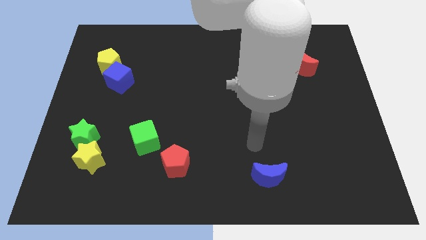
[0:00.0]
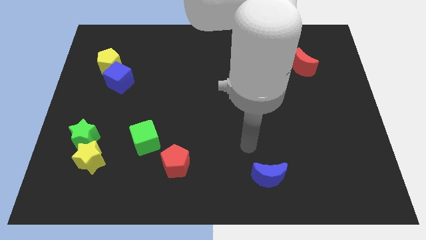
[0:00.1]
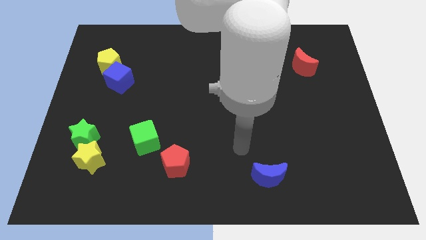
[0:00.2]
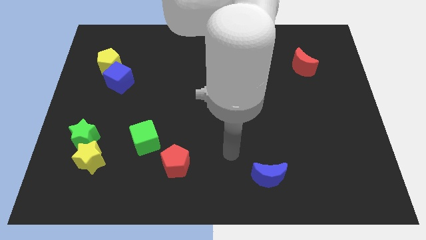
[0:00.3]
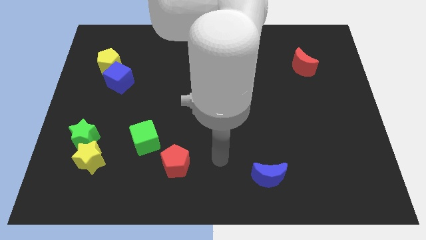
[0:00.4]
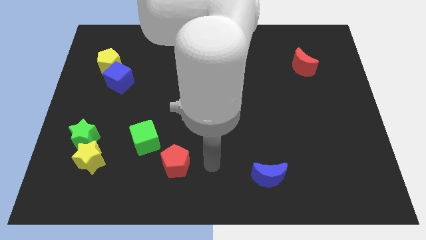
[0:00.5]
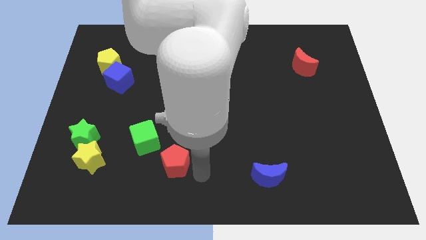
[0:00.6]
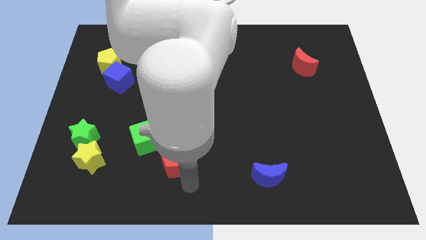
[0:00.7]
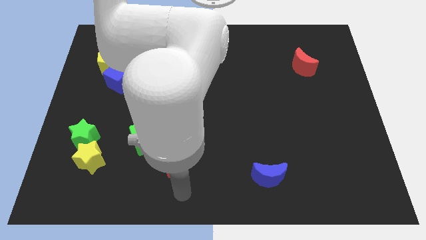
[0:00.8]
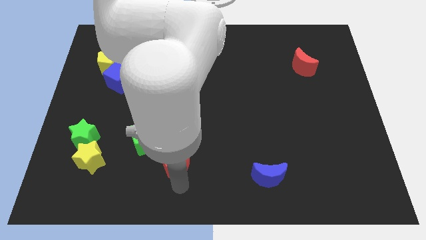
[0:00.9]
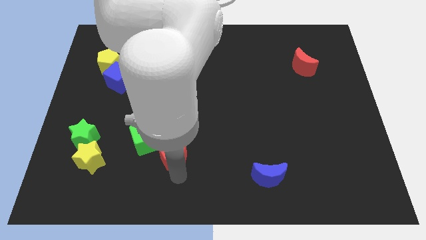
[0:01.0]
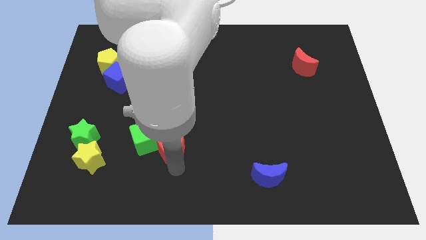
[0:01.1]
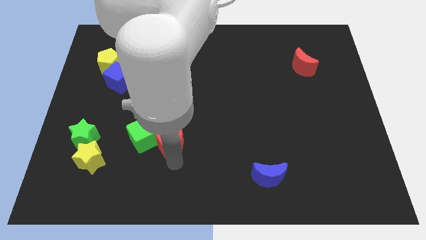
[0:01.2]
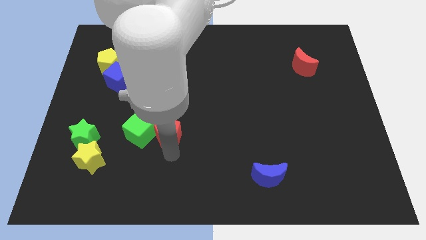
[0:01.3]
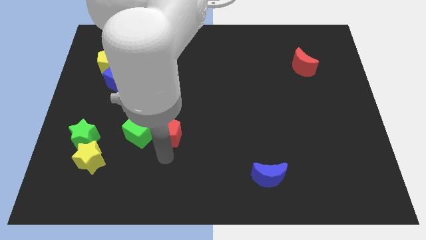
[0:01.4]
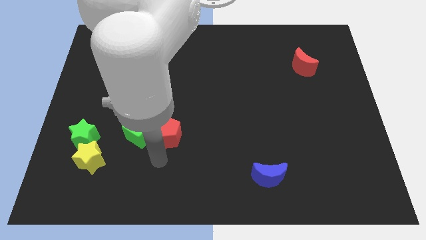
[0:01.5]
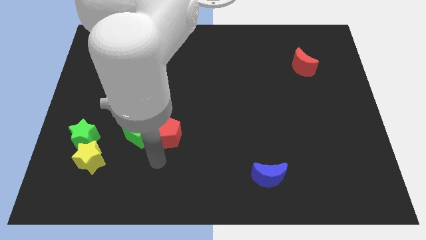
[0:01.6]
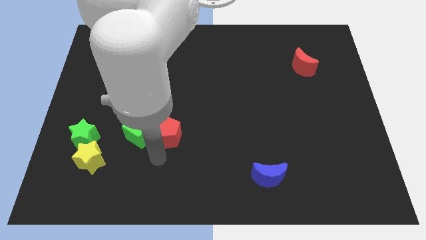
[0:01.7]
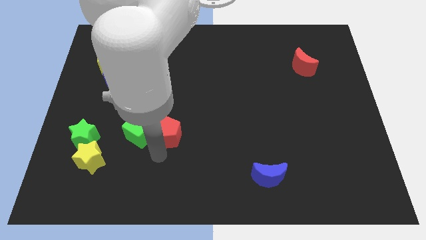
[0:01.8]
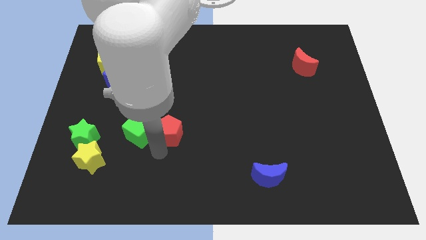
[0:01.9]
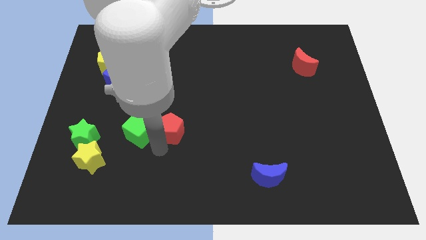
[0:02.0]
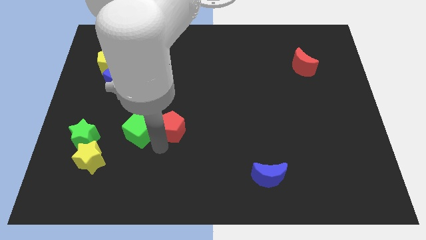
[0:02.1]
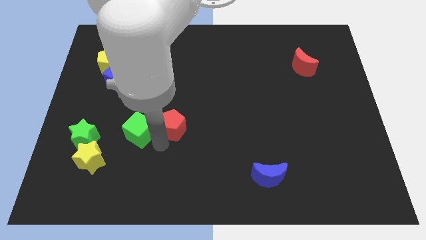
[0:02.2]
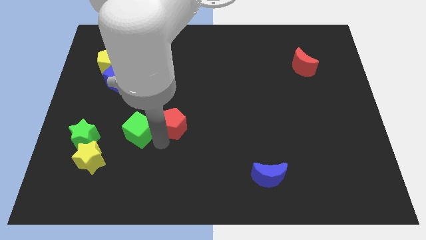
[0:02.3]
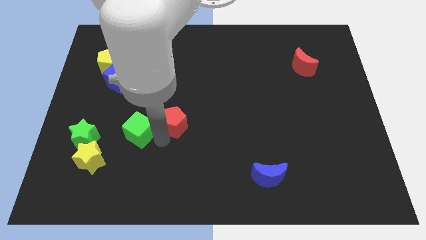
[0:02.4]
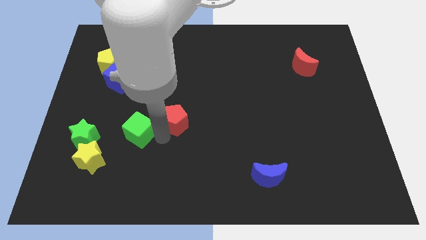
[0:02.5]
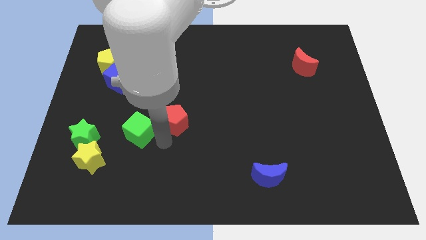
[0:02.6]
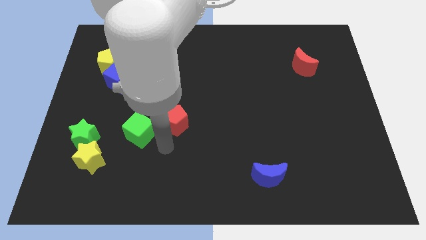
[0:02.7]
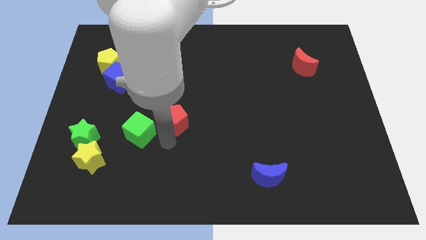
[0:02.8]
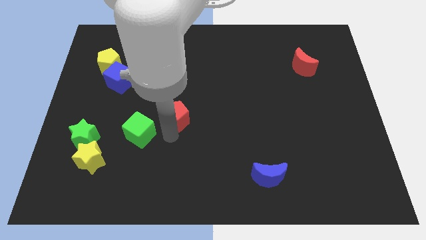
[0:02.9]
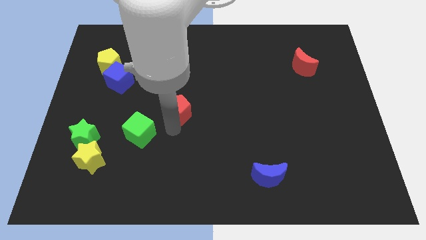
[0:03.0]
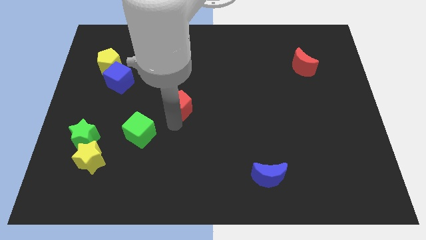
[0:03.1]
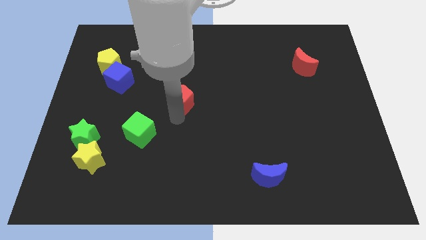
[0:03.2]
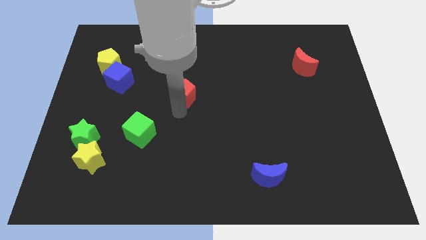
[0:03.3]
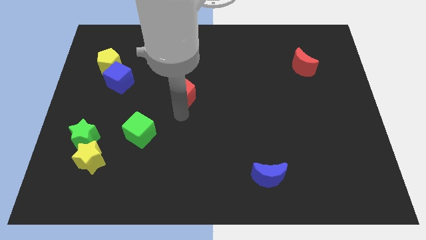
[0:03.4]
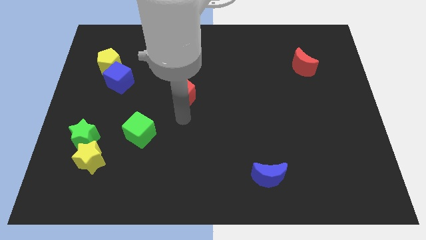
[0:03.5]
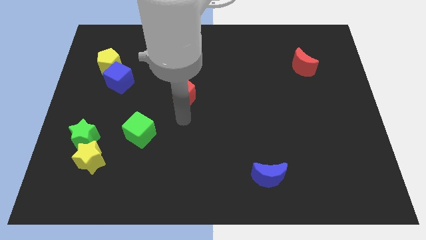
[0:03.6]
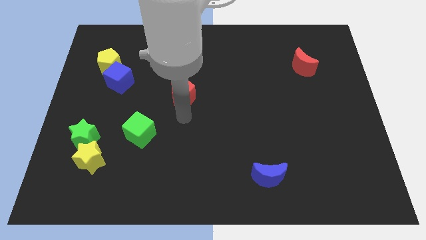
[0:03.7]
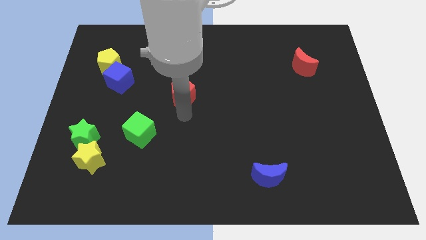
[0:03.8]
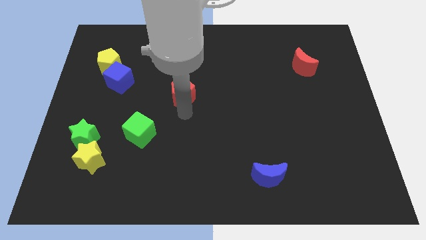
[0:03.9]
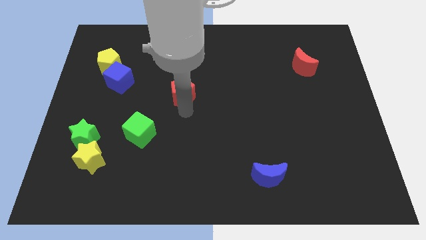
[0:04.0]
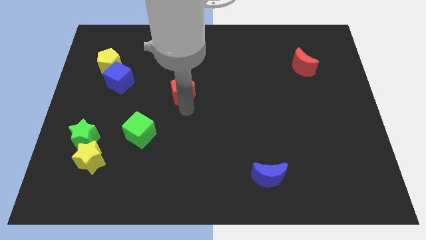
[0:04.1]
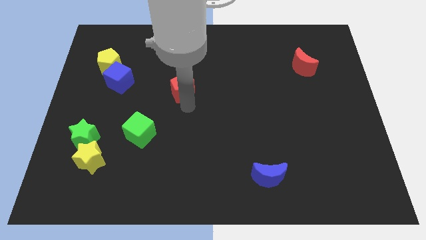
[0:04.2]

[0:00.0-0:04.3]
push the red pentagon up

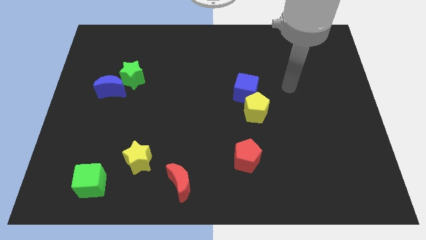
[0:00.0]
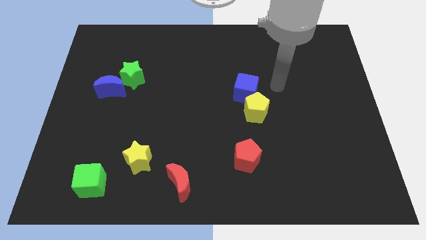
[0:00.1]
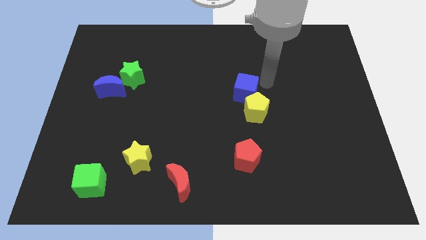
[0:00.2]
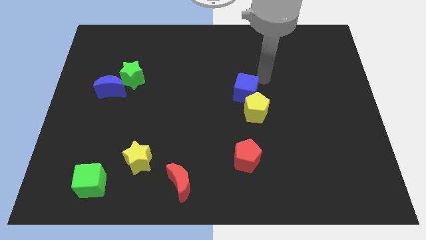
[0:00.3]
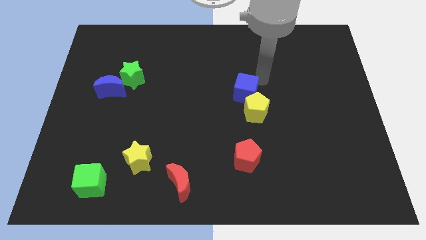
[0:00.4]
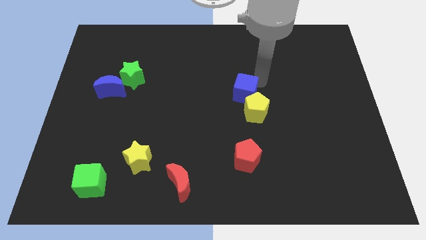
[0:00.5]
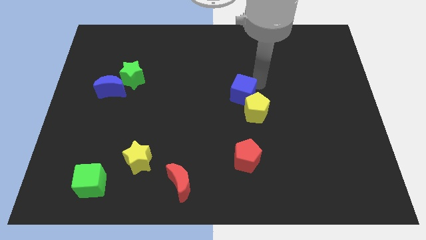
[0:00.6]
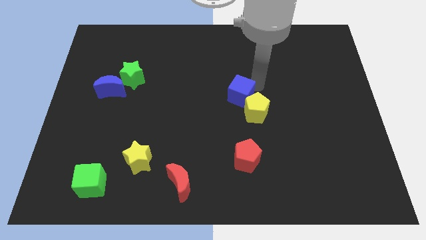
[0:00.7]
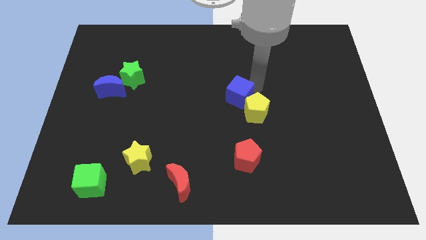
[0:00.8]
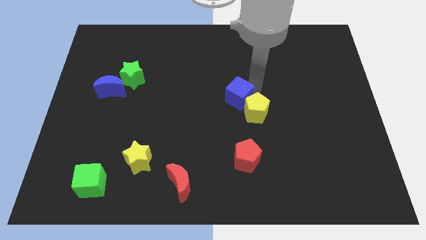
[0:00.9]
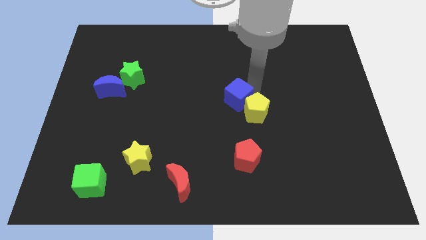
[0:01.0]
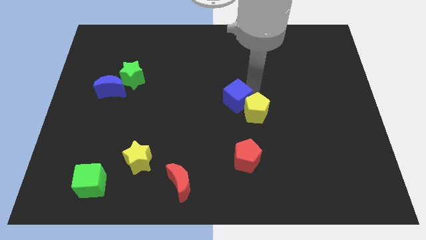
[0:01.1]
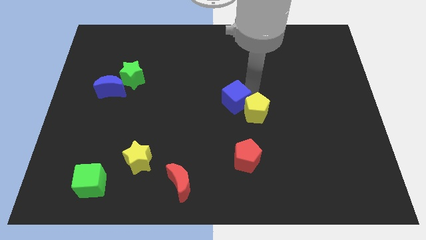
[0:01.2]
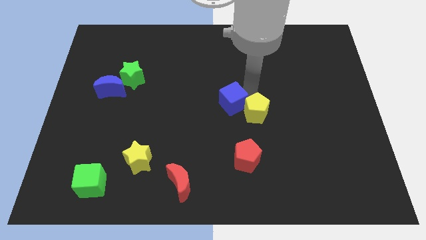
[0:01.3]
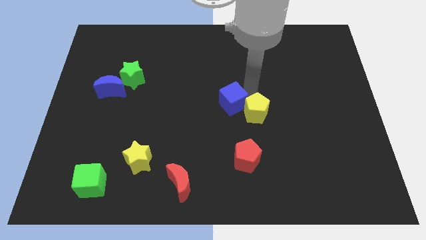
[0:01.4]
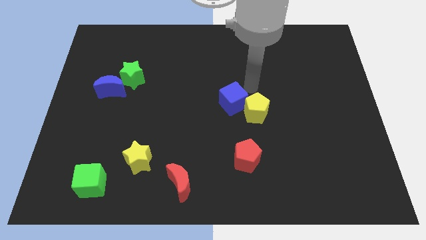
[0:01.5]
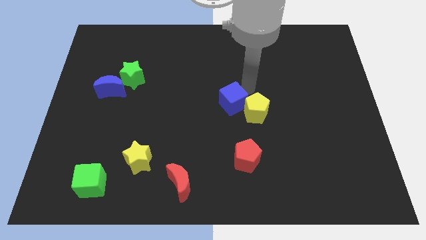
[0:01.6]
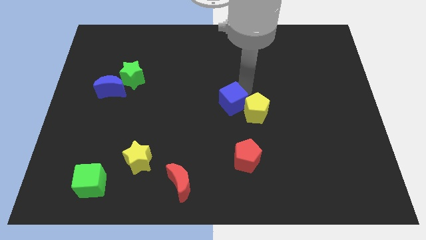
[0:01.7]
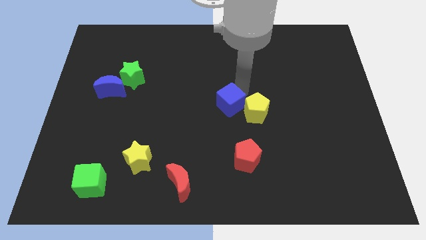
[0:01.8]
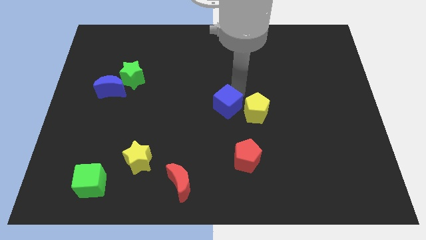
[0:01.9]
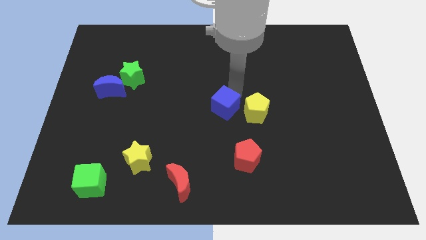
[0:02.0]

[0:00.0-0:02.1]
move the blue cube somewhat downwards and to the left diagonally

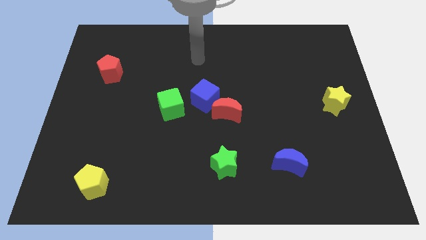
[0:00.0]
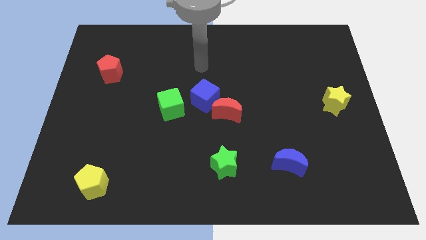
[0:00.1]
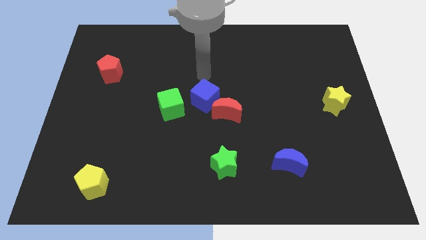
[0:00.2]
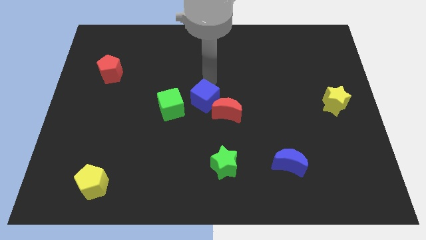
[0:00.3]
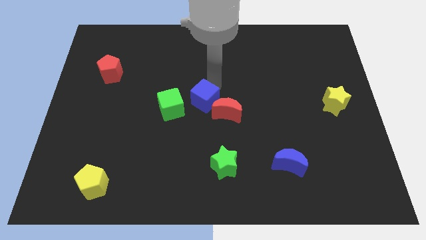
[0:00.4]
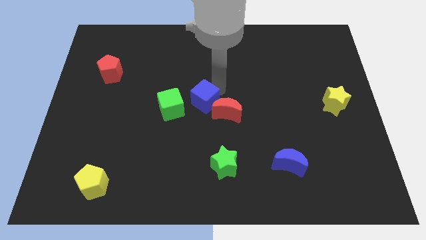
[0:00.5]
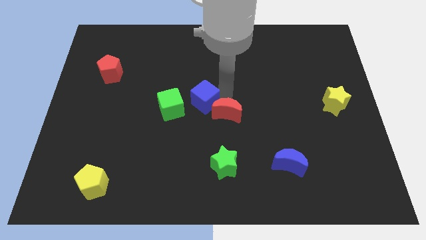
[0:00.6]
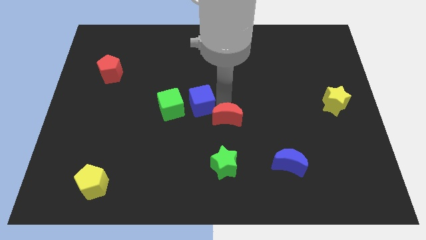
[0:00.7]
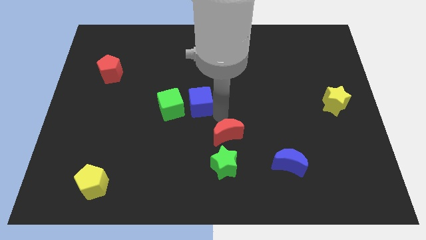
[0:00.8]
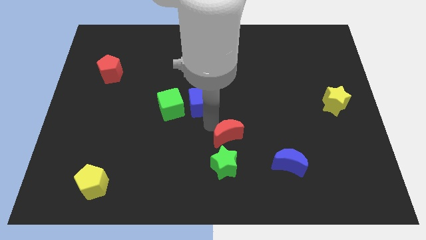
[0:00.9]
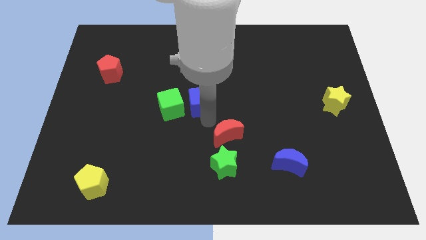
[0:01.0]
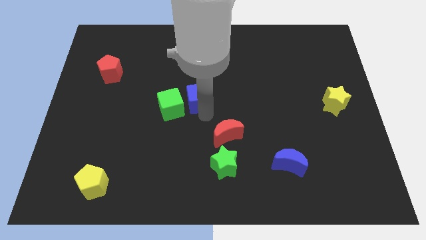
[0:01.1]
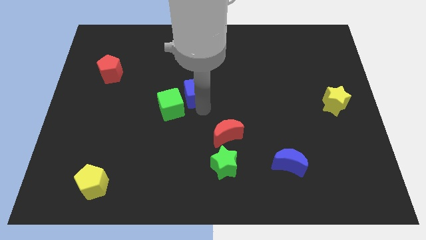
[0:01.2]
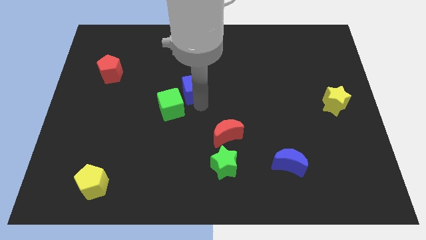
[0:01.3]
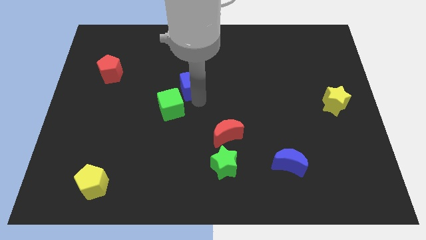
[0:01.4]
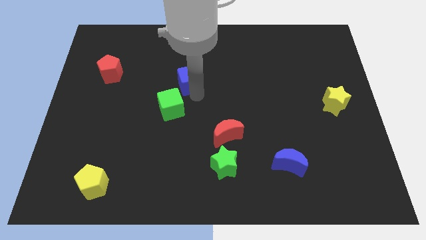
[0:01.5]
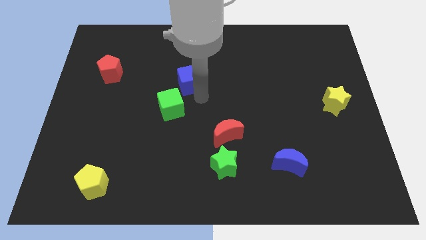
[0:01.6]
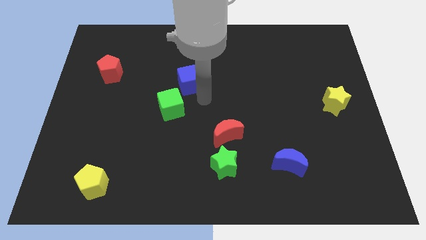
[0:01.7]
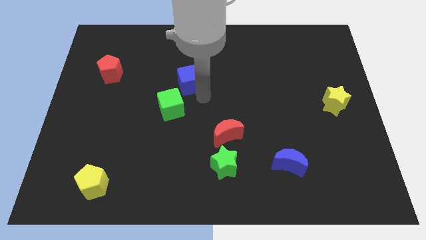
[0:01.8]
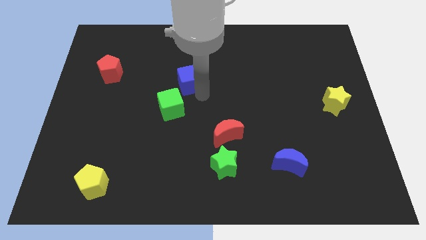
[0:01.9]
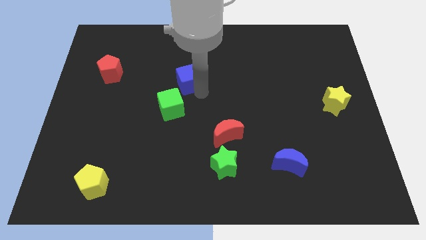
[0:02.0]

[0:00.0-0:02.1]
slide the blue cube diagonally up and to the left a little
